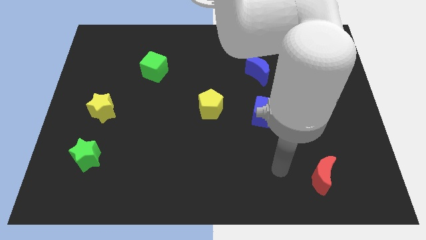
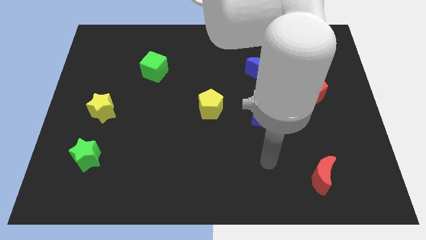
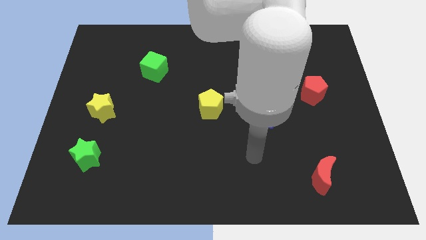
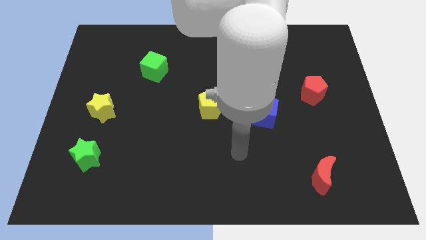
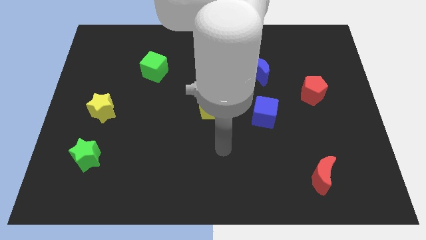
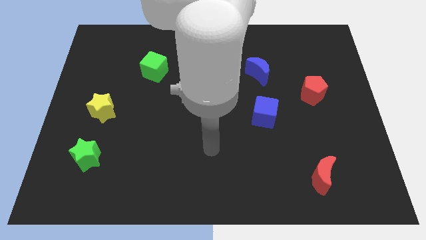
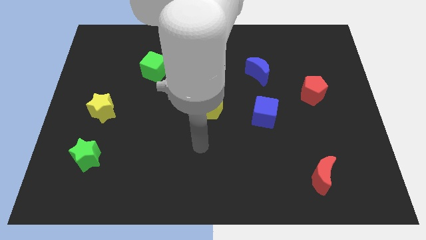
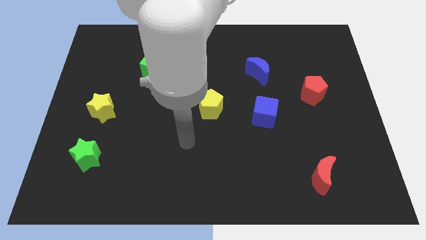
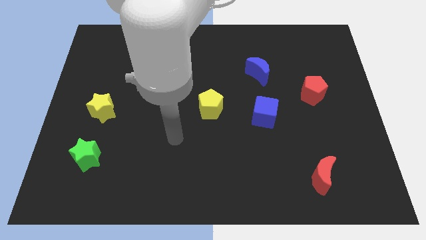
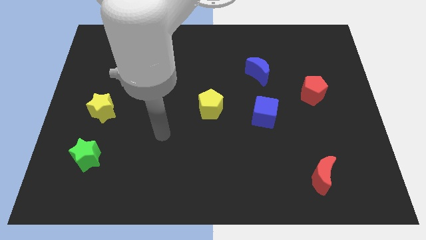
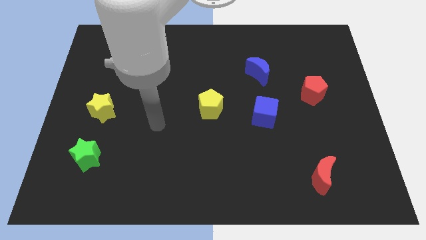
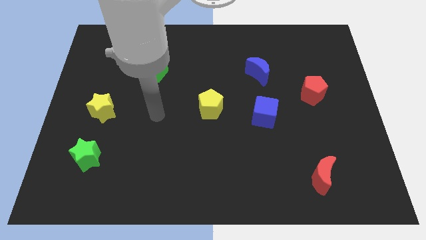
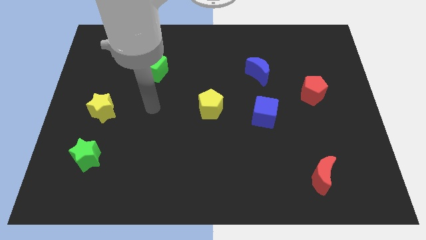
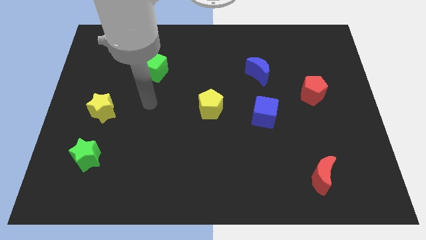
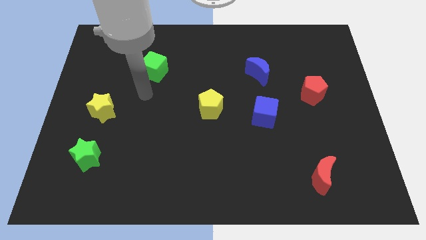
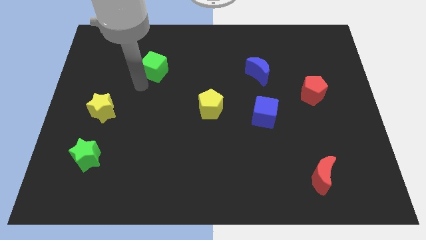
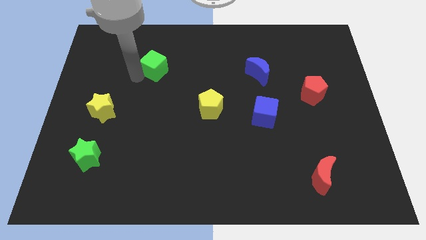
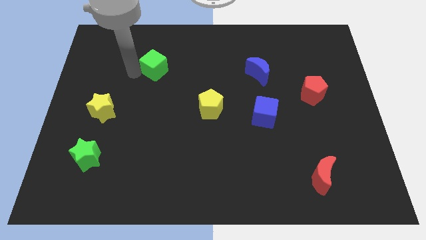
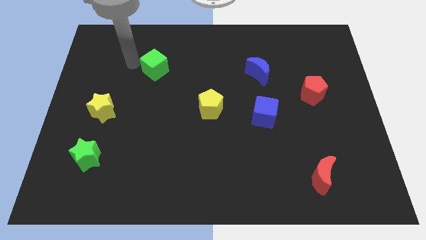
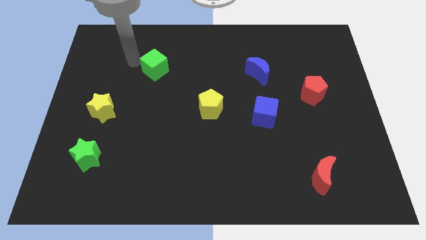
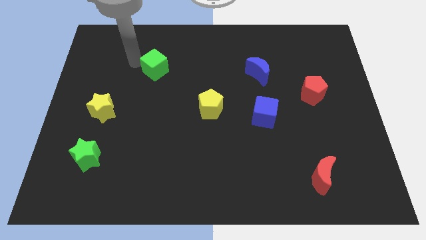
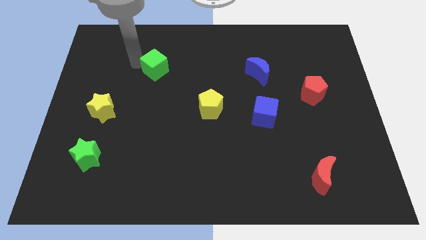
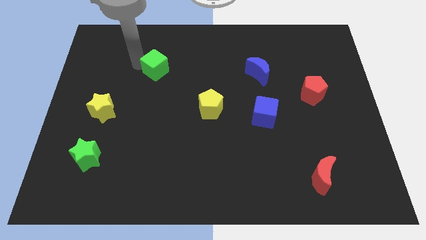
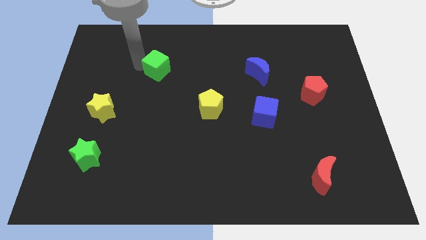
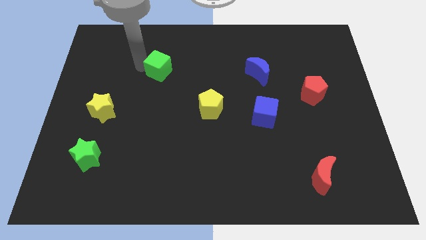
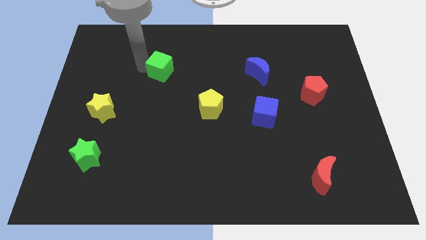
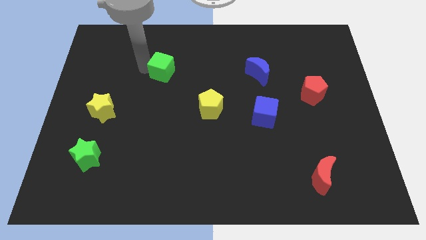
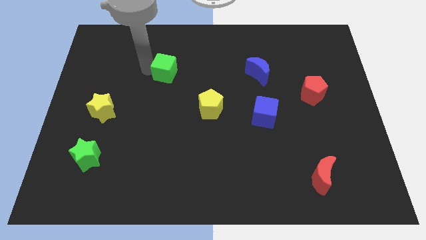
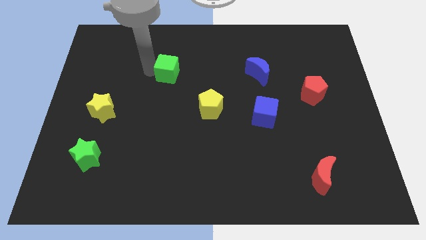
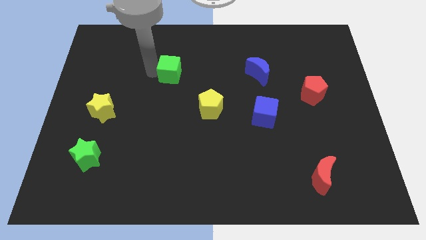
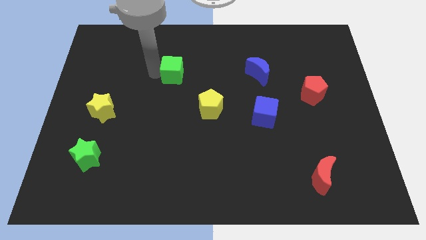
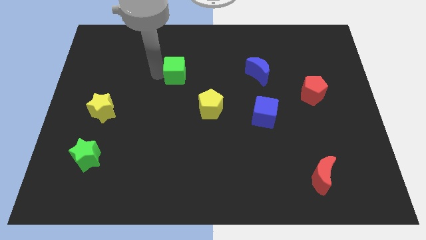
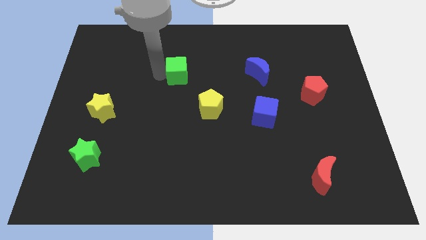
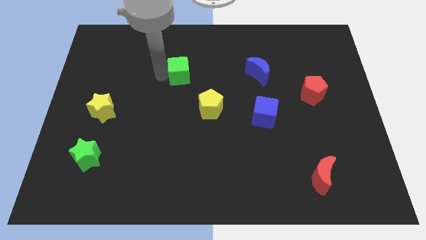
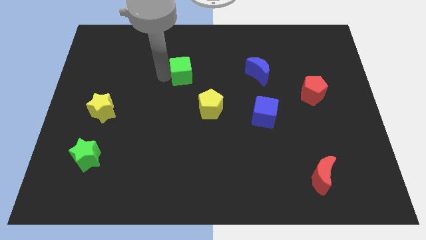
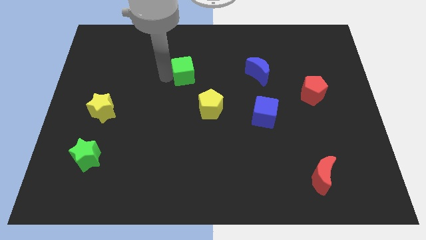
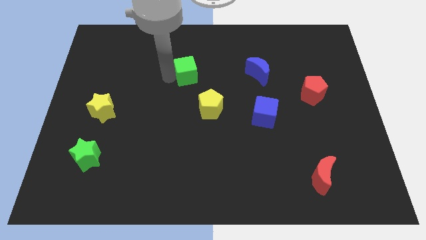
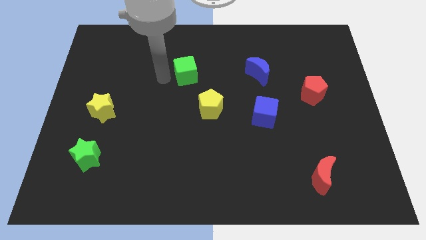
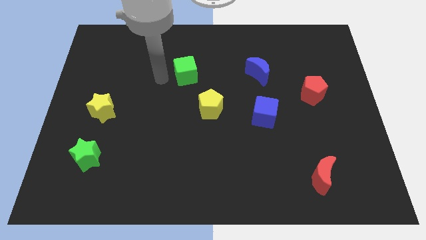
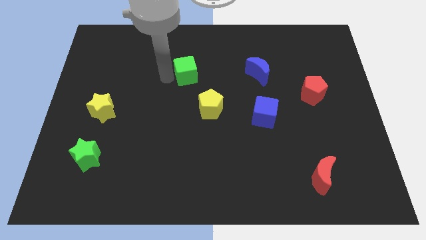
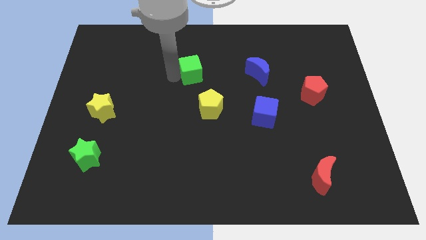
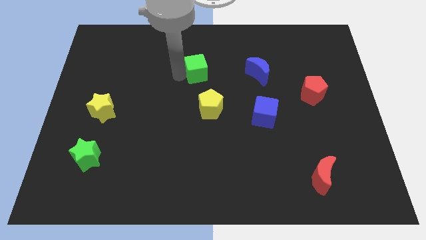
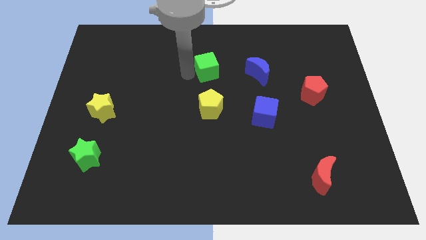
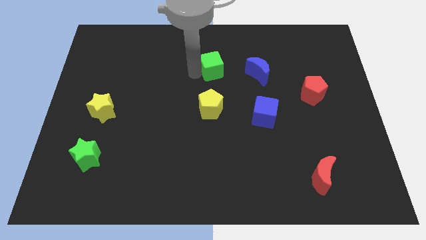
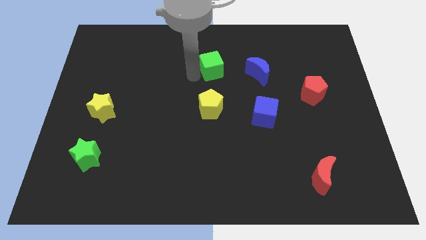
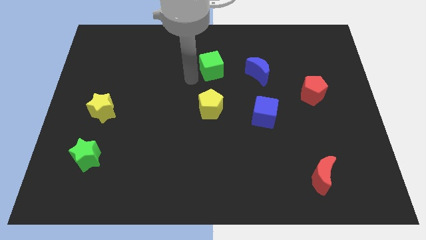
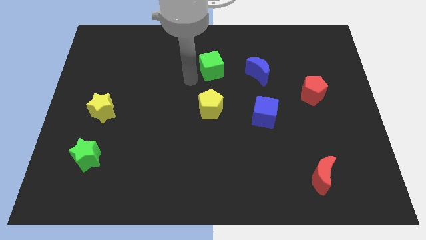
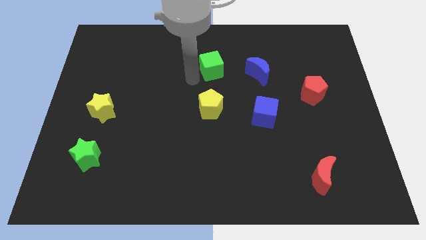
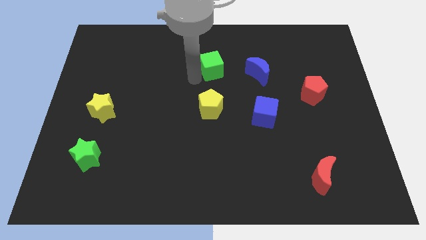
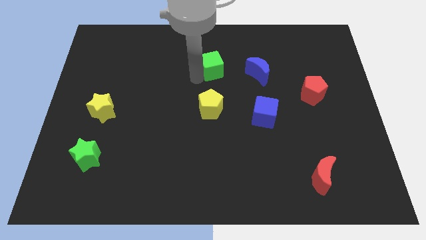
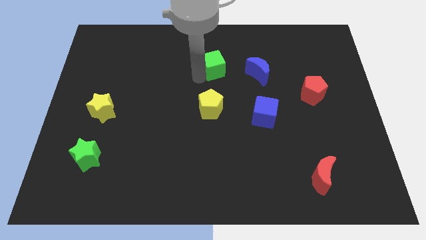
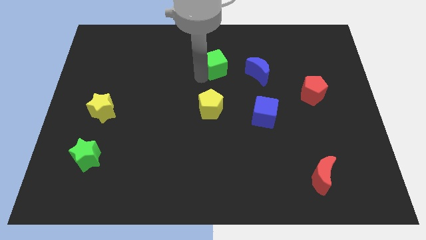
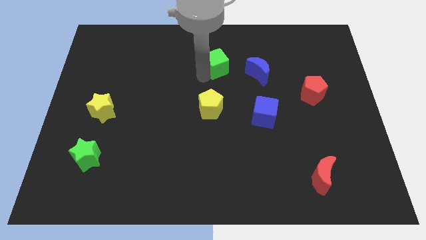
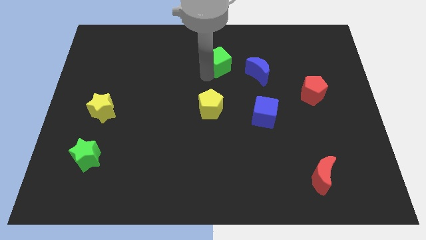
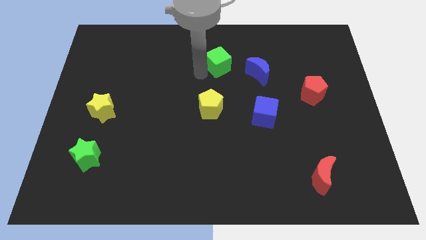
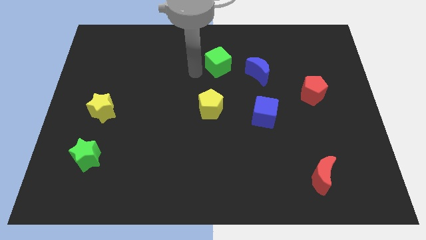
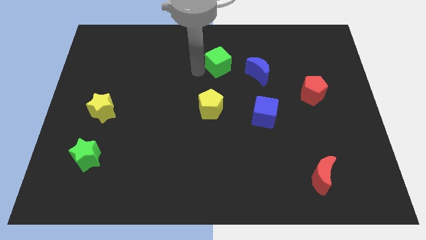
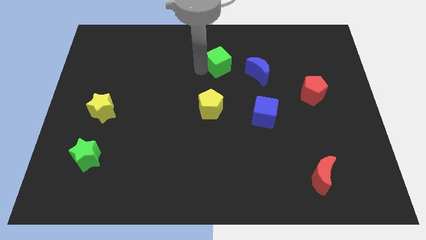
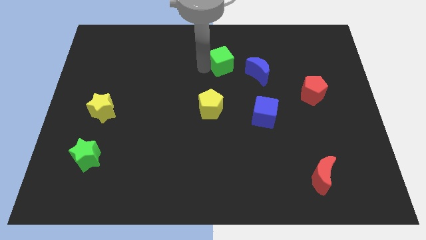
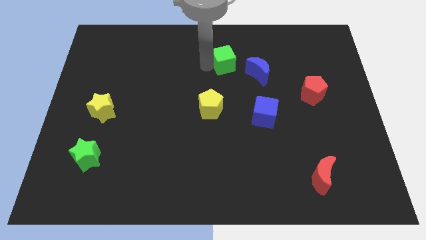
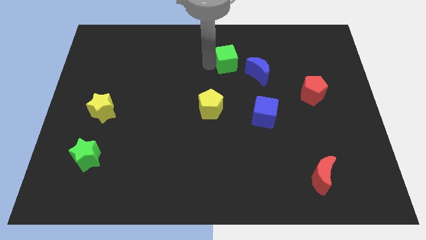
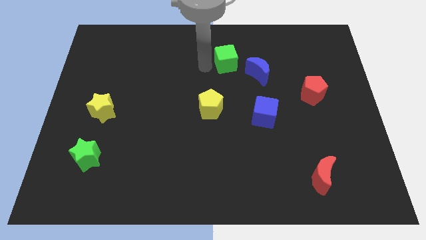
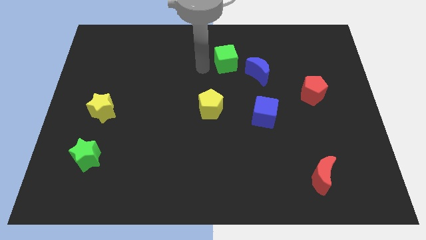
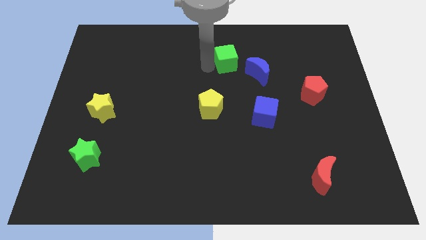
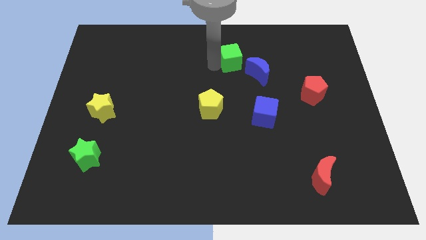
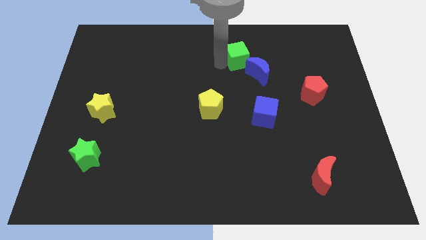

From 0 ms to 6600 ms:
slide the green cube to the right

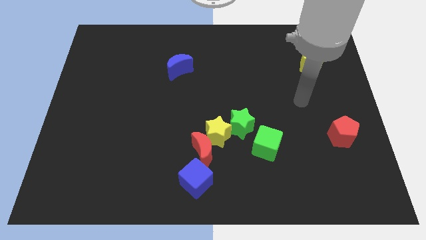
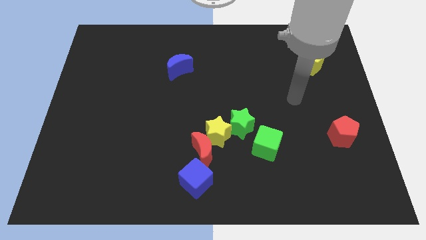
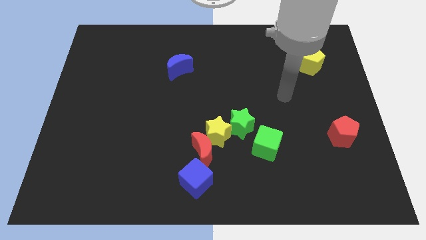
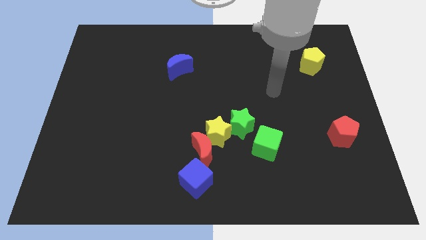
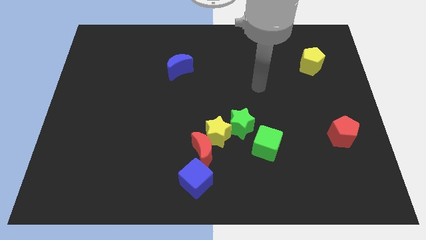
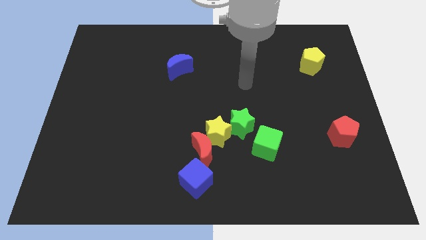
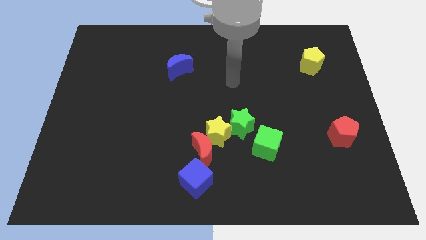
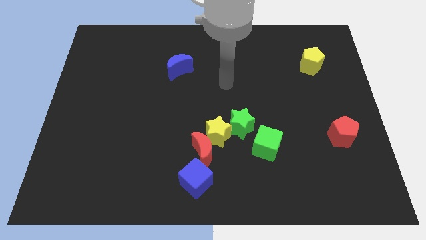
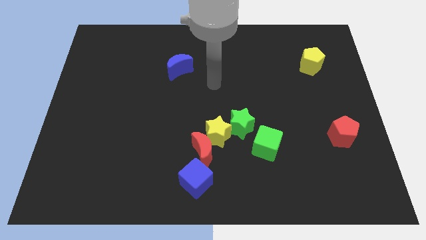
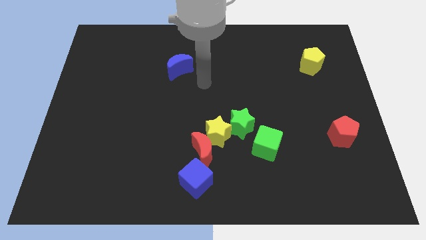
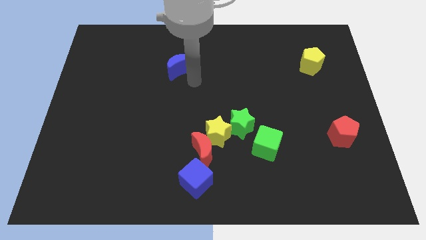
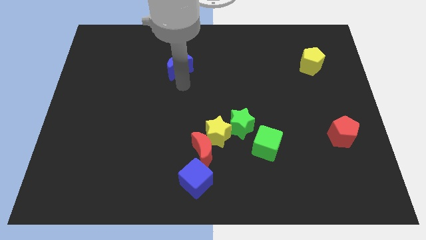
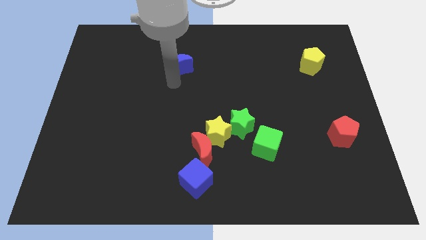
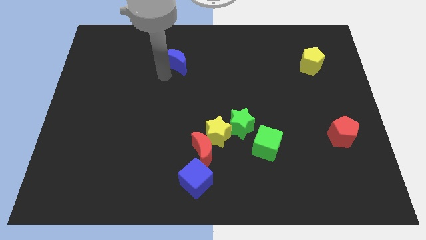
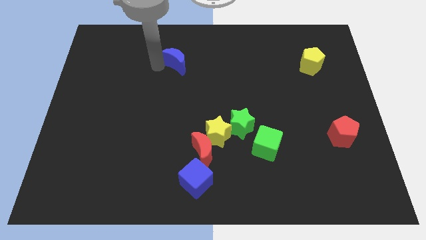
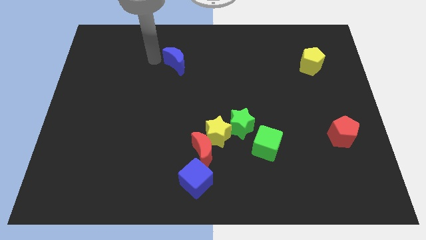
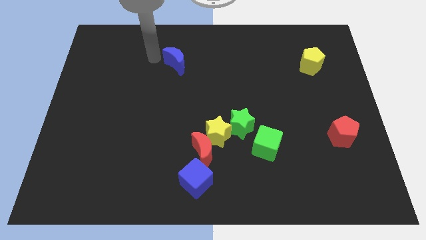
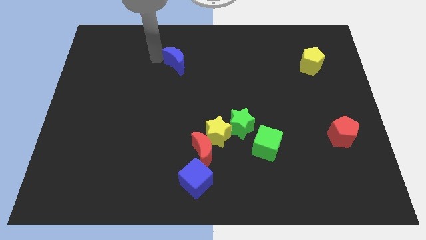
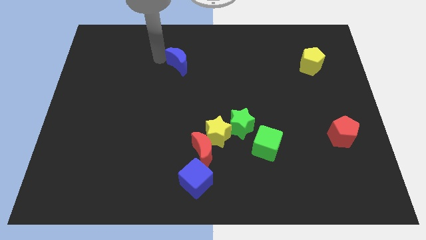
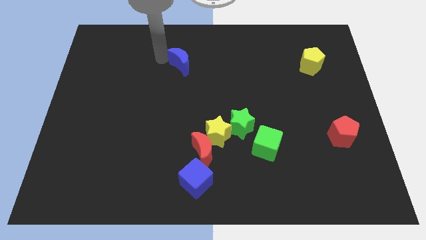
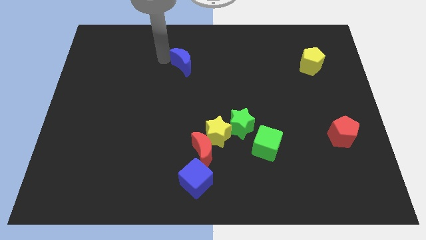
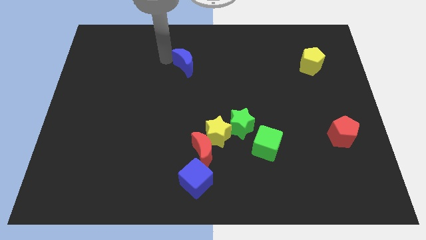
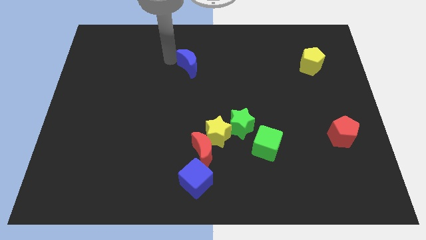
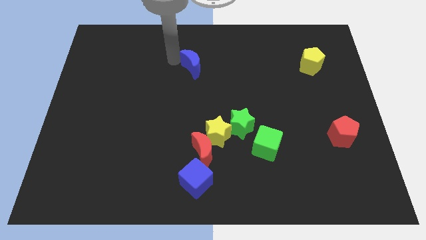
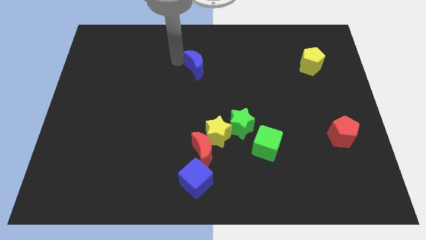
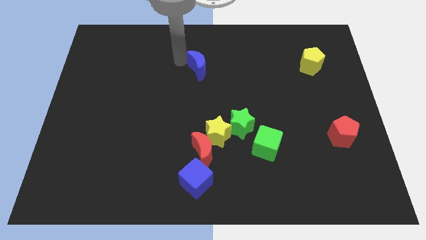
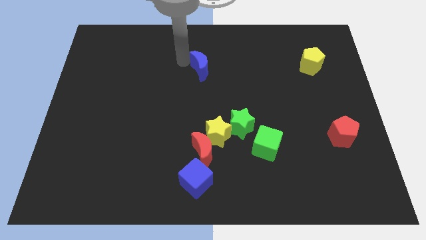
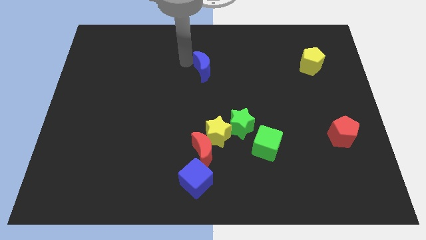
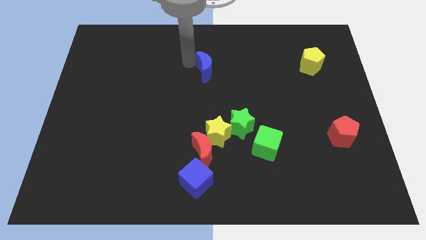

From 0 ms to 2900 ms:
push the blue moon slightly right
